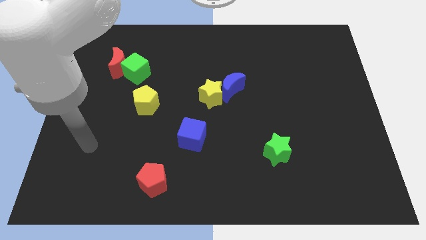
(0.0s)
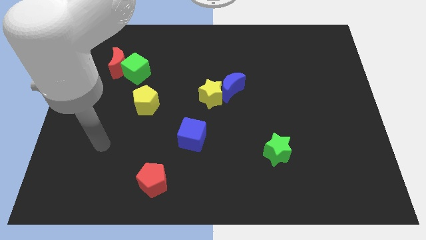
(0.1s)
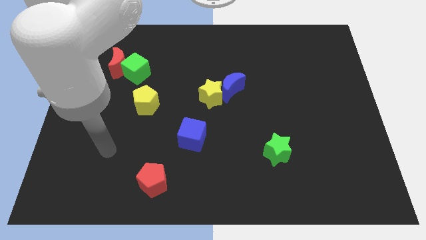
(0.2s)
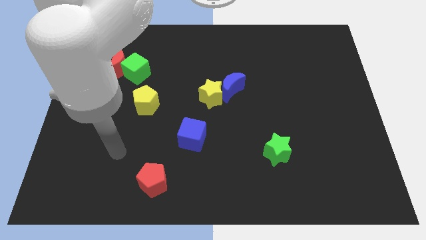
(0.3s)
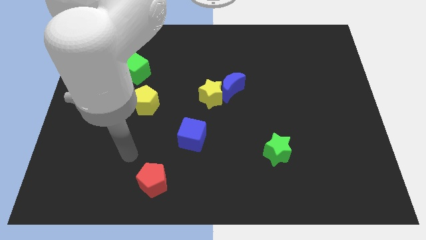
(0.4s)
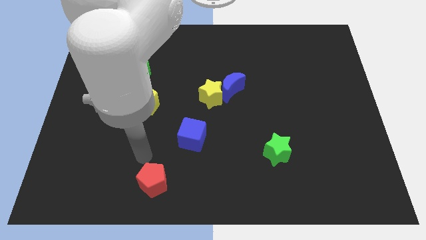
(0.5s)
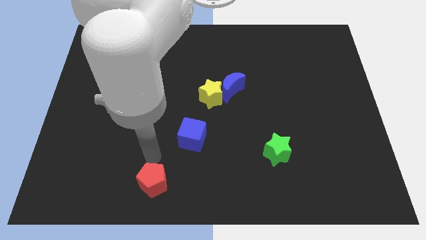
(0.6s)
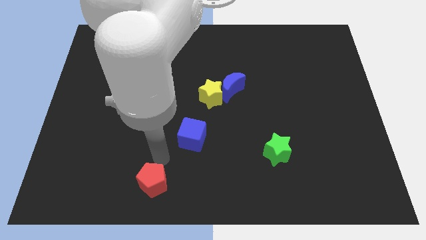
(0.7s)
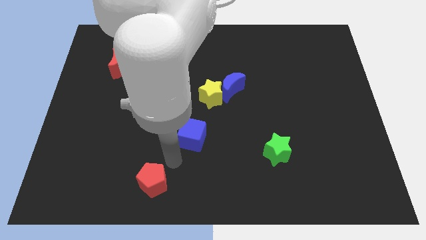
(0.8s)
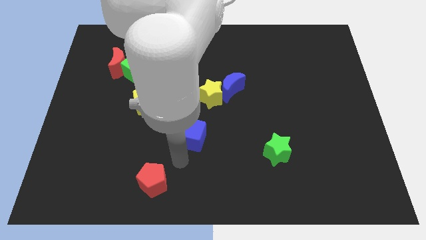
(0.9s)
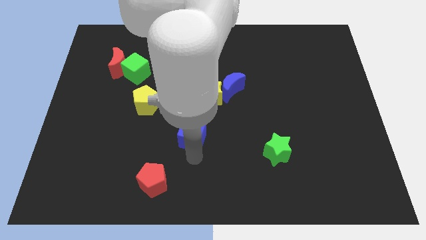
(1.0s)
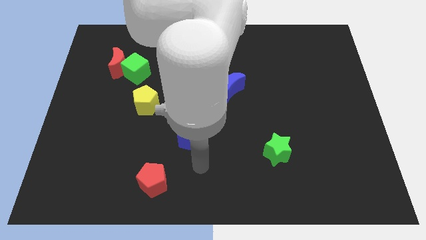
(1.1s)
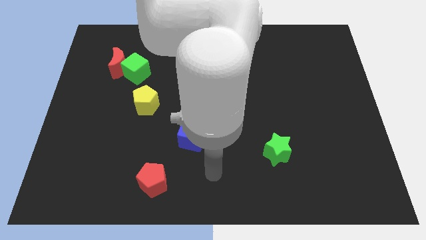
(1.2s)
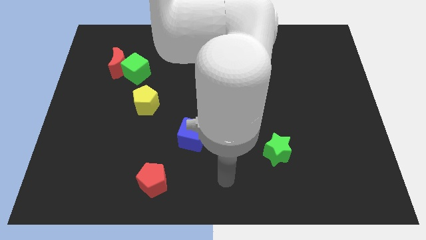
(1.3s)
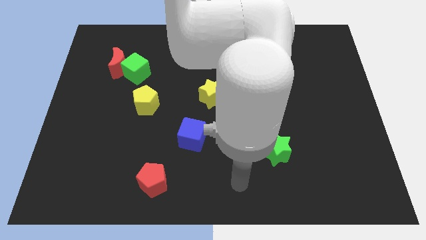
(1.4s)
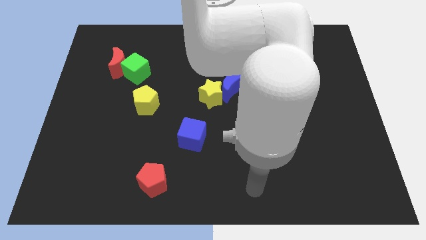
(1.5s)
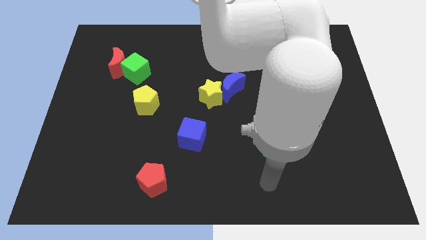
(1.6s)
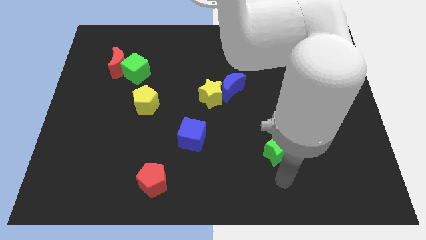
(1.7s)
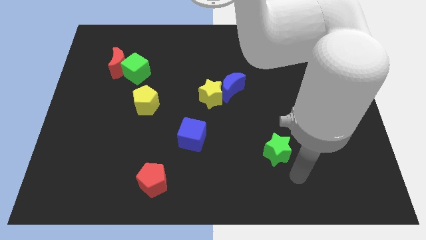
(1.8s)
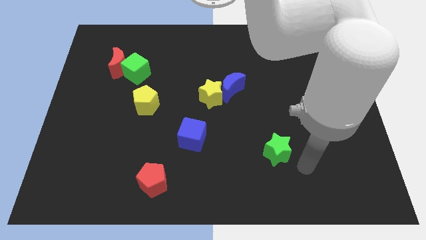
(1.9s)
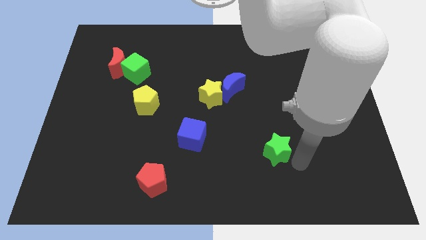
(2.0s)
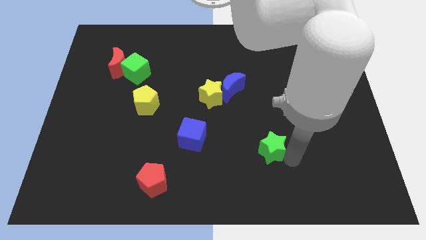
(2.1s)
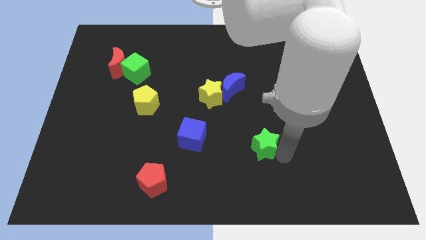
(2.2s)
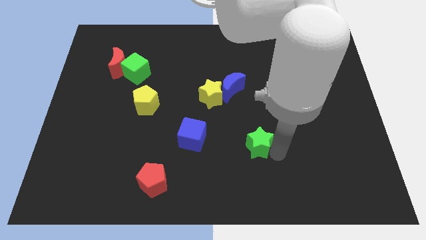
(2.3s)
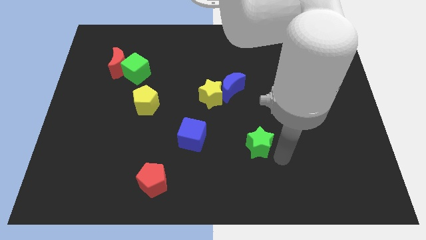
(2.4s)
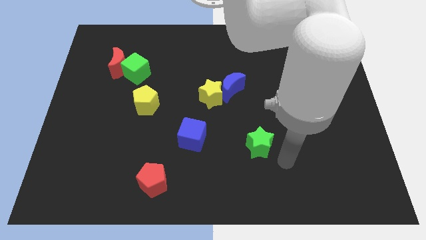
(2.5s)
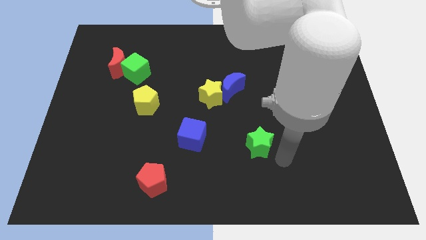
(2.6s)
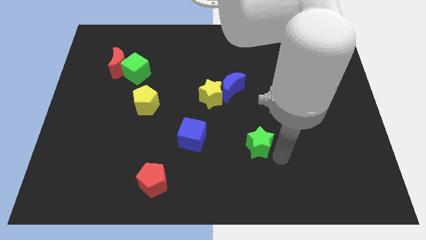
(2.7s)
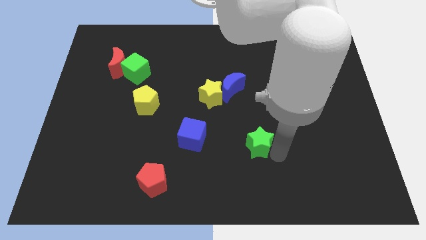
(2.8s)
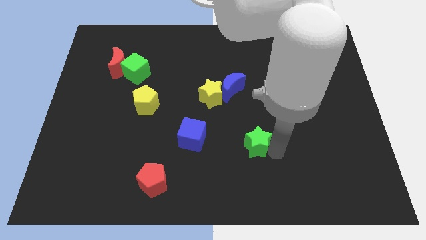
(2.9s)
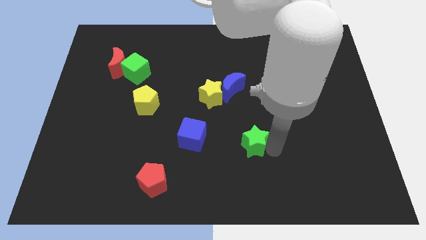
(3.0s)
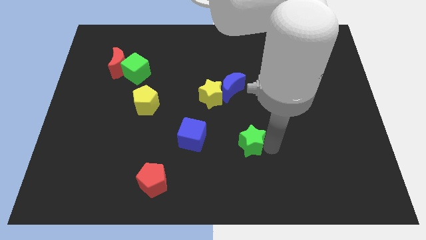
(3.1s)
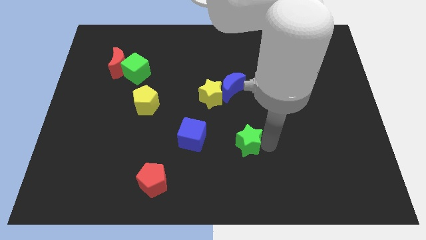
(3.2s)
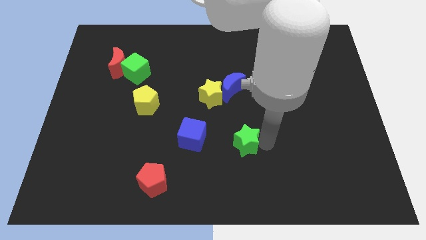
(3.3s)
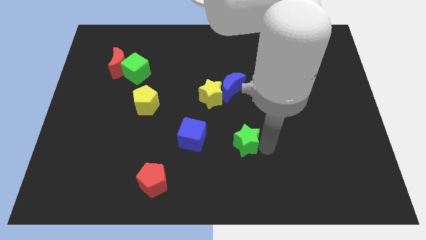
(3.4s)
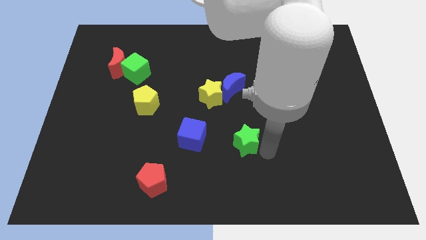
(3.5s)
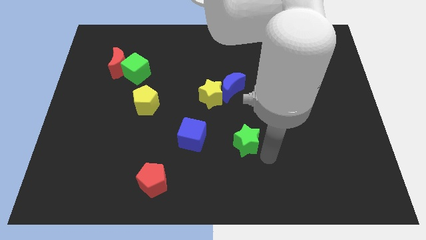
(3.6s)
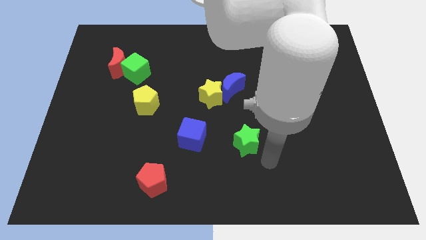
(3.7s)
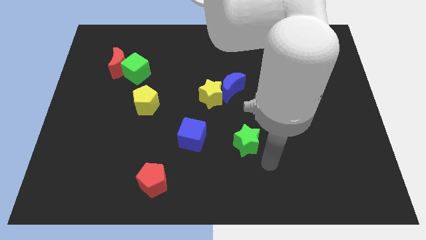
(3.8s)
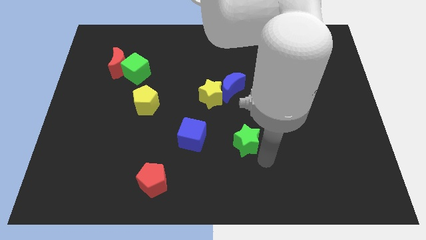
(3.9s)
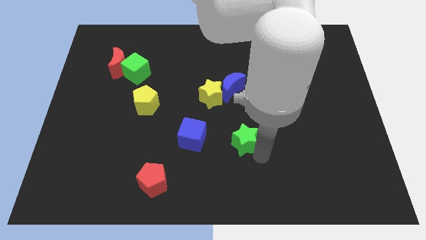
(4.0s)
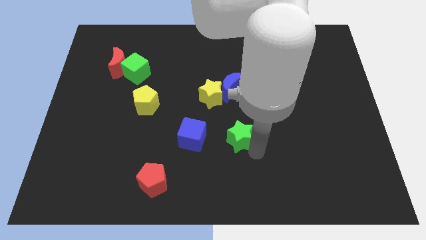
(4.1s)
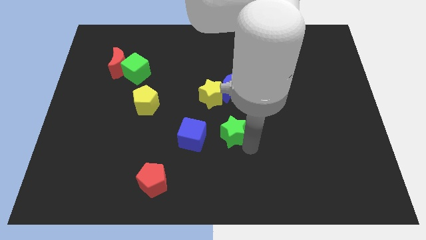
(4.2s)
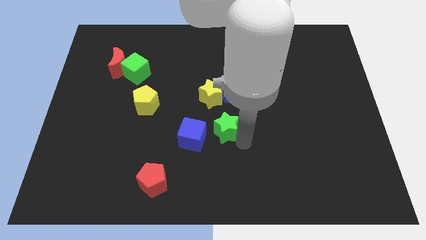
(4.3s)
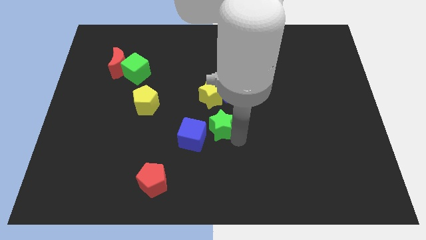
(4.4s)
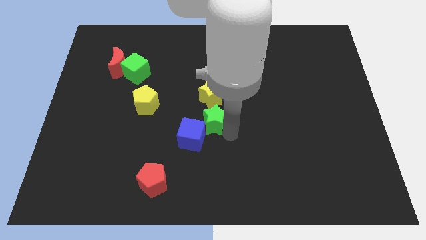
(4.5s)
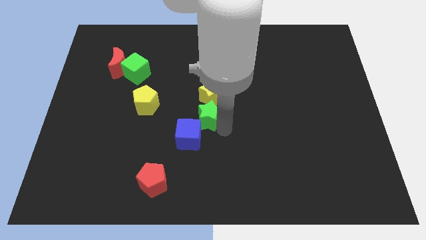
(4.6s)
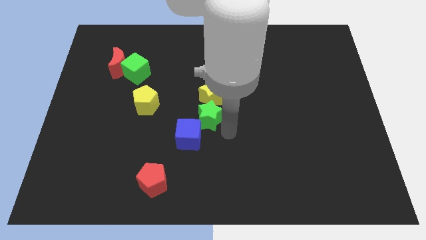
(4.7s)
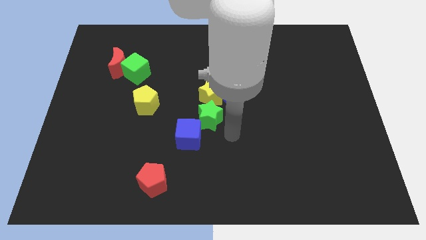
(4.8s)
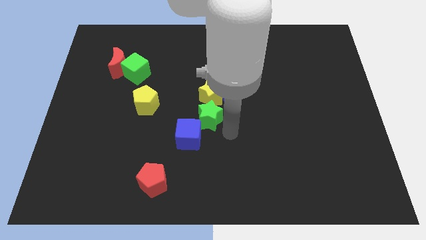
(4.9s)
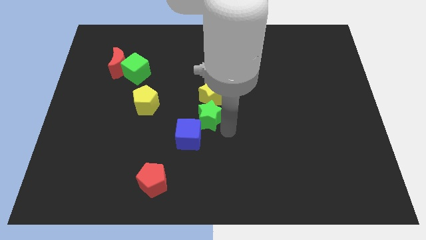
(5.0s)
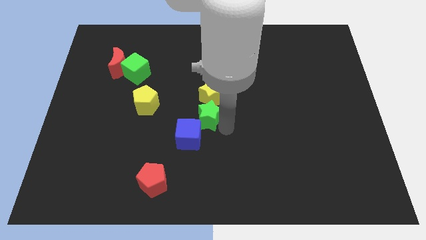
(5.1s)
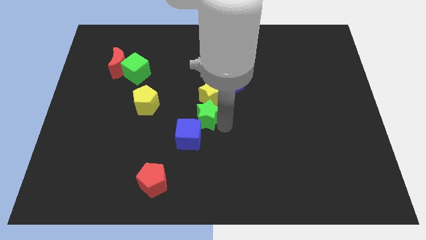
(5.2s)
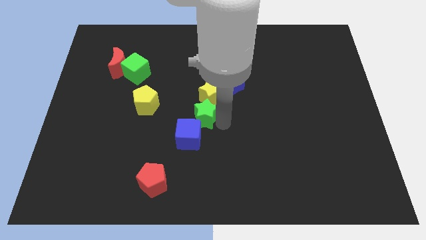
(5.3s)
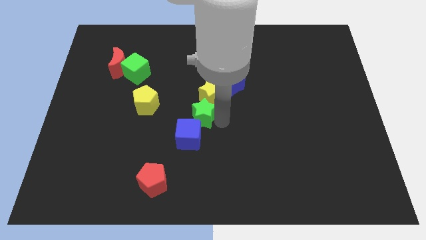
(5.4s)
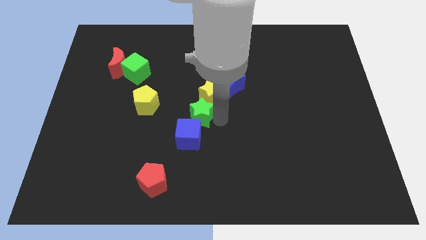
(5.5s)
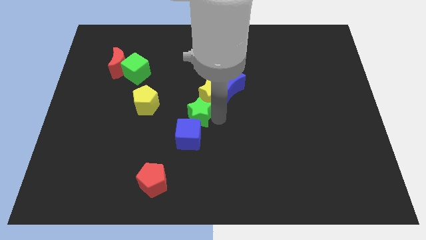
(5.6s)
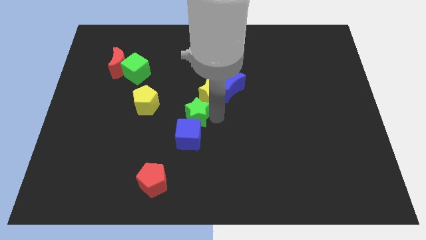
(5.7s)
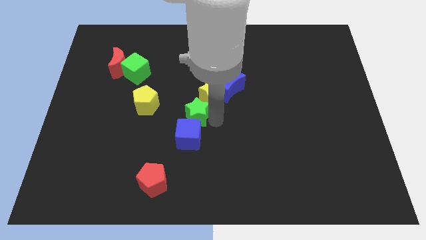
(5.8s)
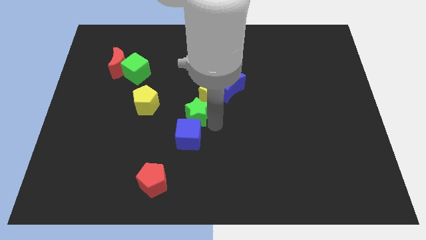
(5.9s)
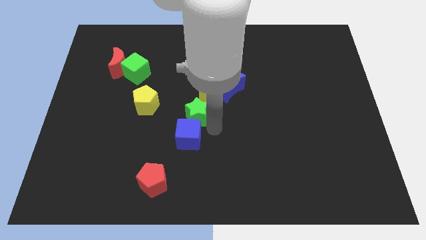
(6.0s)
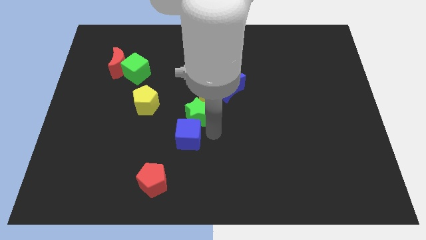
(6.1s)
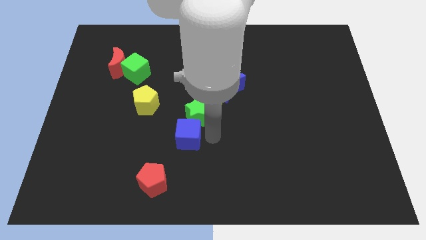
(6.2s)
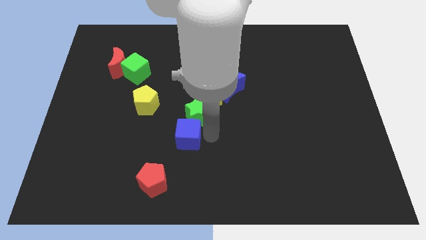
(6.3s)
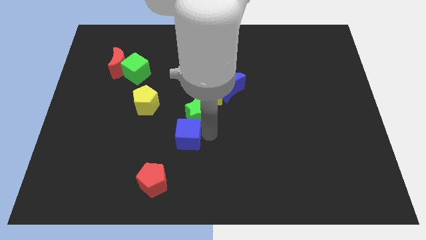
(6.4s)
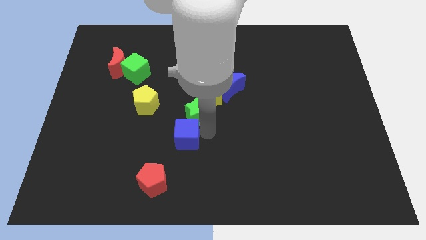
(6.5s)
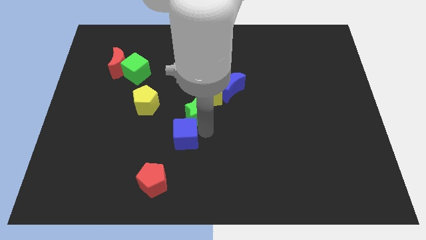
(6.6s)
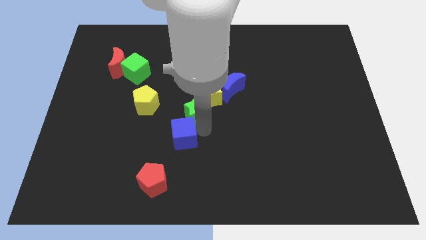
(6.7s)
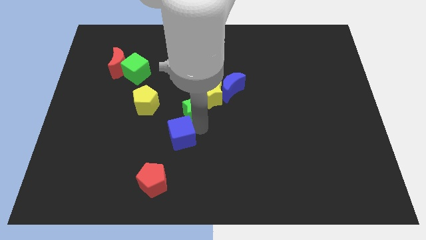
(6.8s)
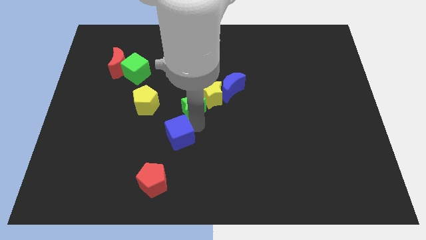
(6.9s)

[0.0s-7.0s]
slide the green star upwards and to the left

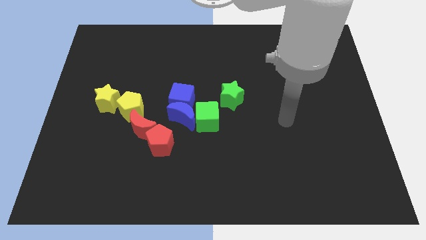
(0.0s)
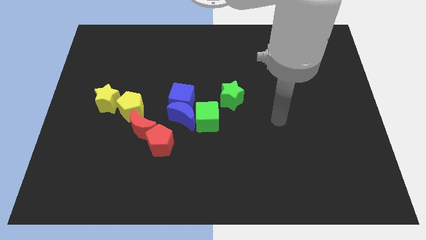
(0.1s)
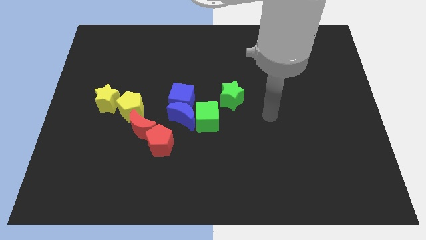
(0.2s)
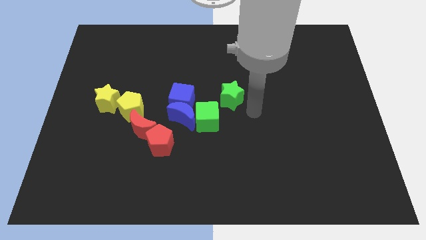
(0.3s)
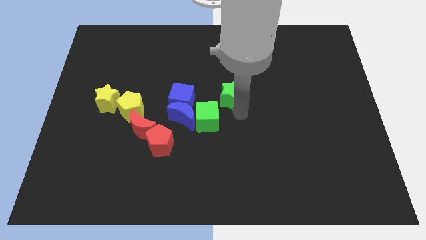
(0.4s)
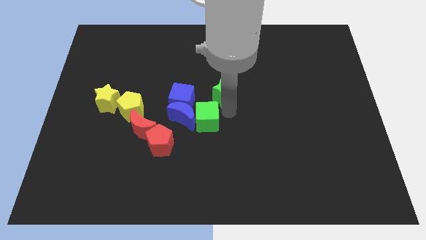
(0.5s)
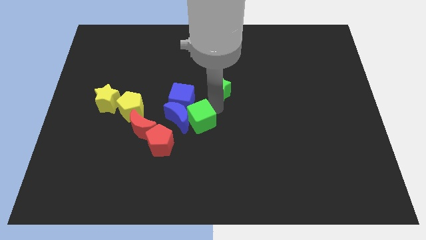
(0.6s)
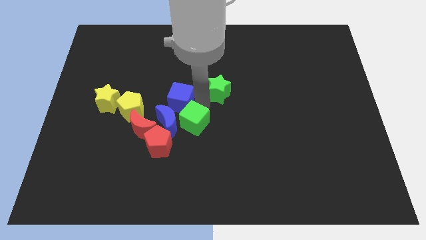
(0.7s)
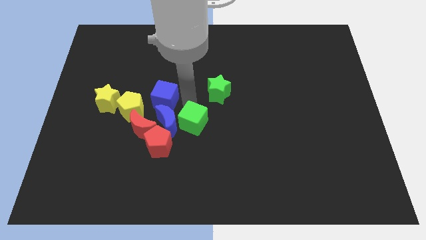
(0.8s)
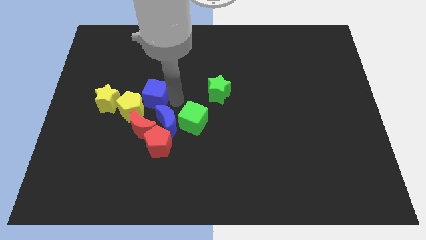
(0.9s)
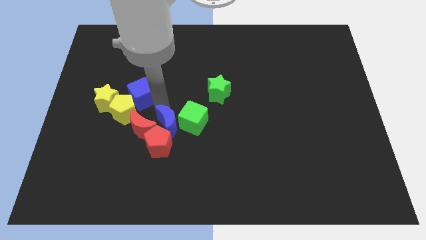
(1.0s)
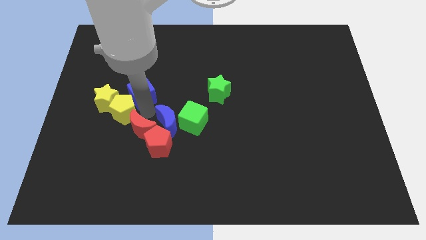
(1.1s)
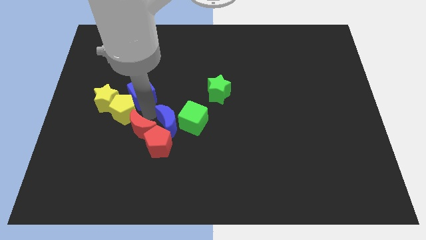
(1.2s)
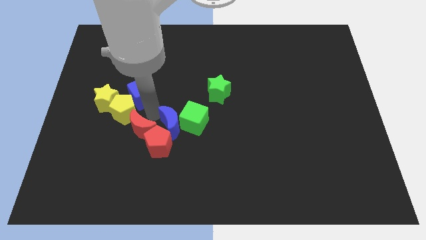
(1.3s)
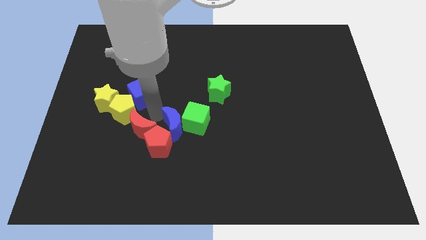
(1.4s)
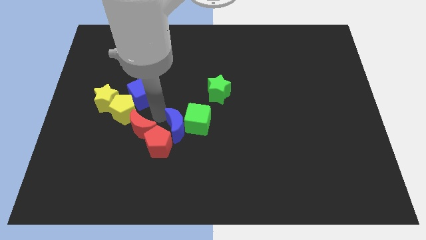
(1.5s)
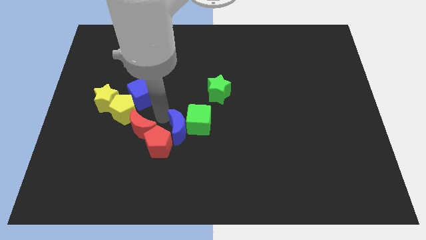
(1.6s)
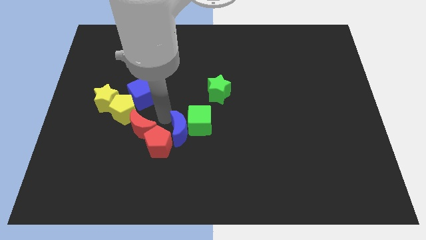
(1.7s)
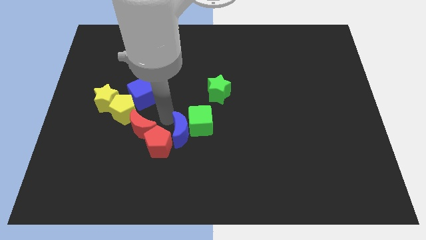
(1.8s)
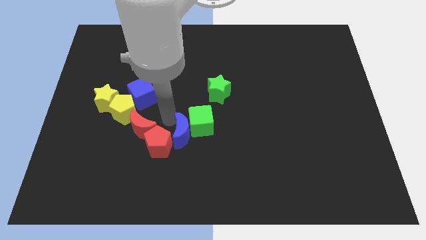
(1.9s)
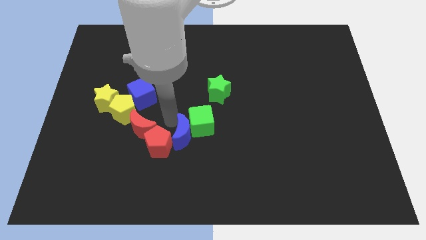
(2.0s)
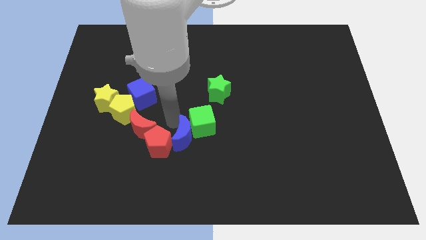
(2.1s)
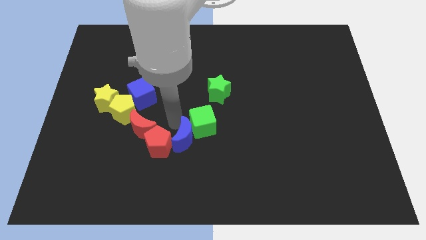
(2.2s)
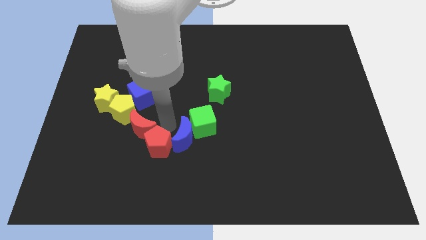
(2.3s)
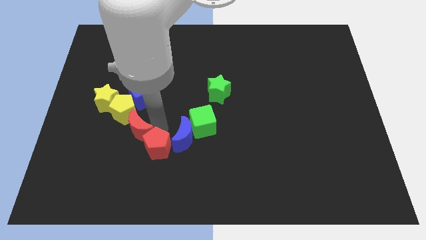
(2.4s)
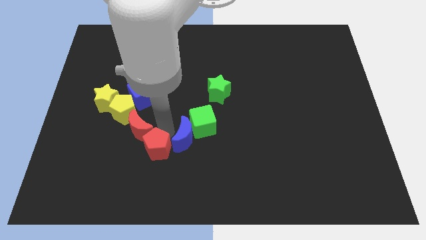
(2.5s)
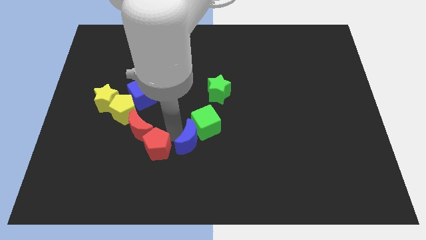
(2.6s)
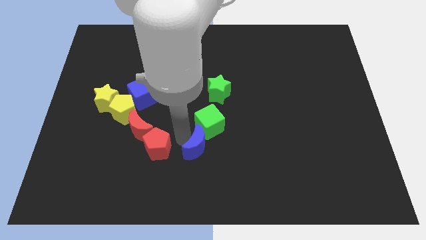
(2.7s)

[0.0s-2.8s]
move the blue moon a bit downwards and right diagonally
